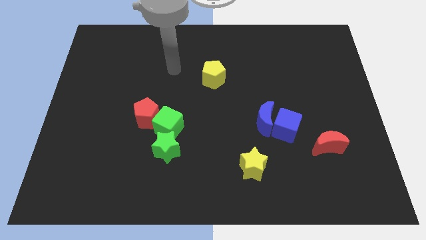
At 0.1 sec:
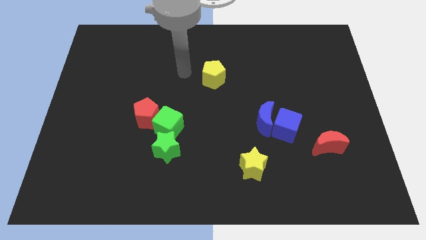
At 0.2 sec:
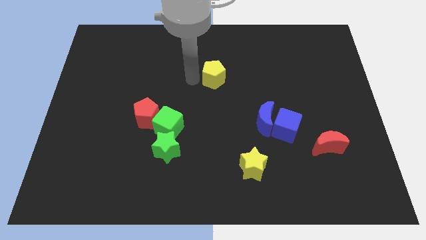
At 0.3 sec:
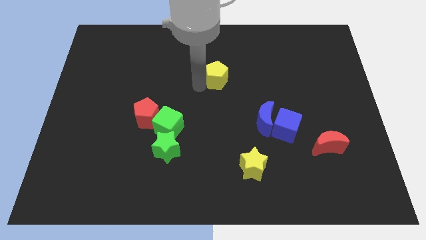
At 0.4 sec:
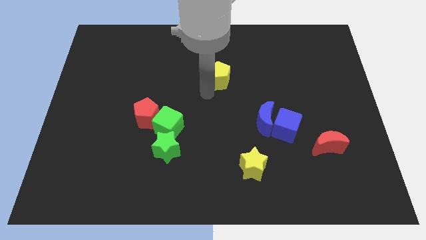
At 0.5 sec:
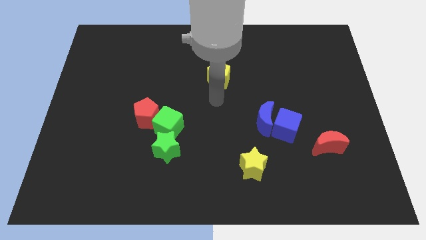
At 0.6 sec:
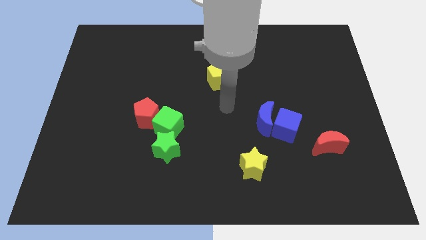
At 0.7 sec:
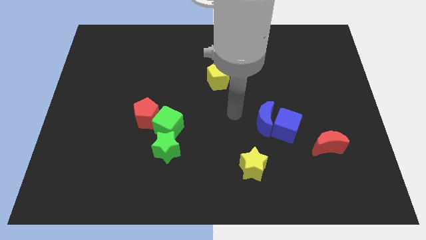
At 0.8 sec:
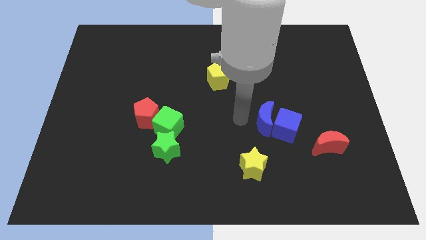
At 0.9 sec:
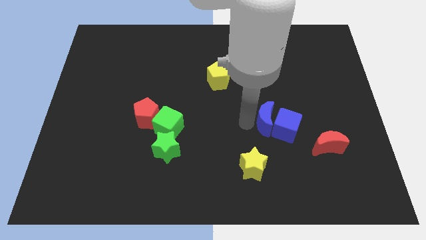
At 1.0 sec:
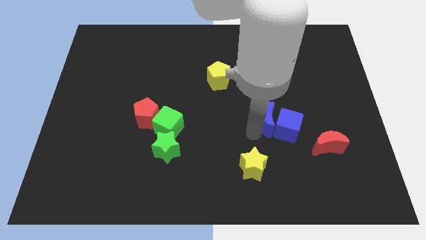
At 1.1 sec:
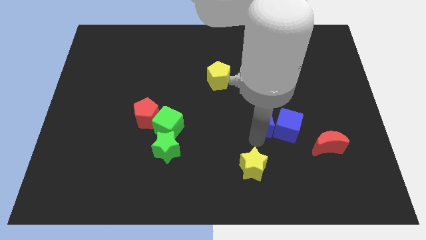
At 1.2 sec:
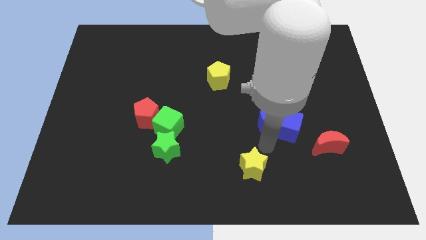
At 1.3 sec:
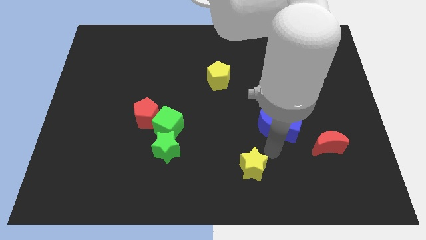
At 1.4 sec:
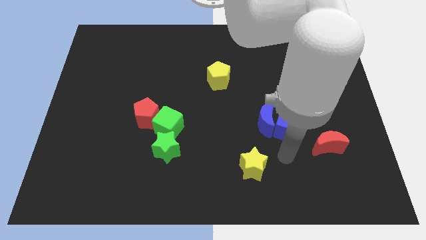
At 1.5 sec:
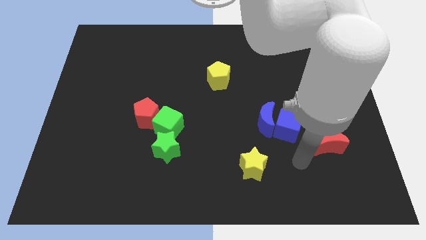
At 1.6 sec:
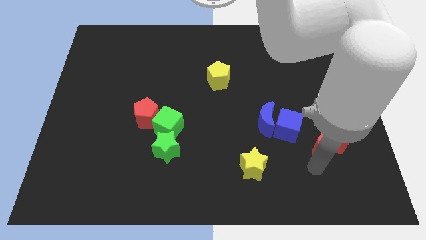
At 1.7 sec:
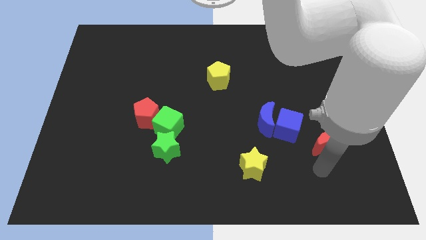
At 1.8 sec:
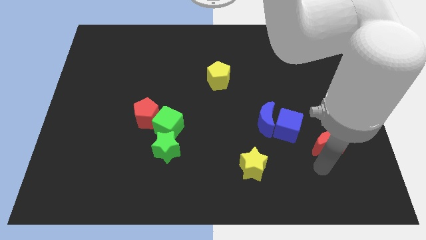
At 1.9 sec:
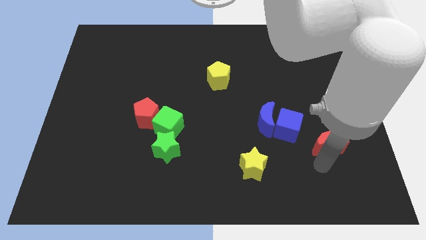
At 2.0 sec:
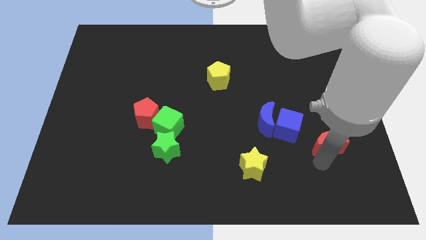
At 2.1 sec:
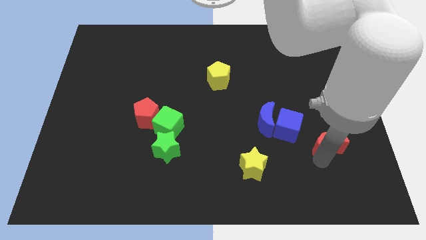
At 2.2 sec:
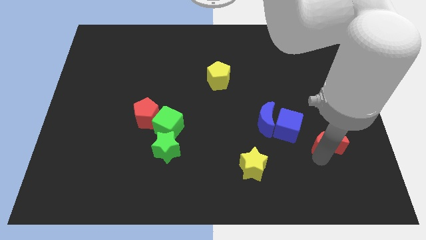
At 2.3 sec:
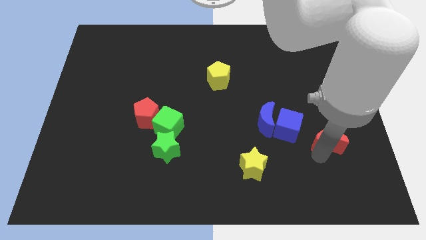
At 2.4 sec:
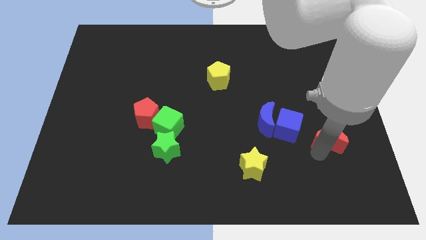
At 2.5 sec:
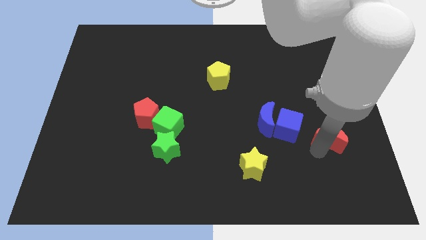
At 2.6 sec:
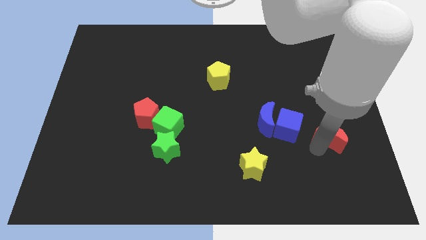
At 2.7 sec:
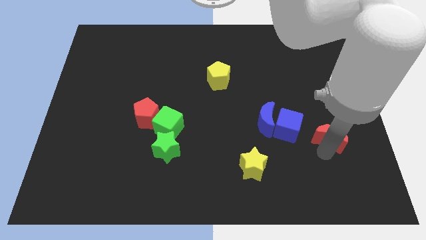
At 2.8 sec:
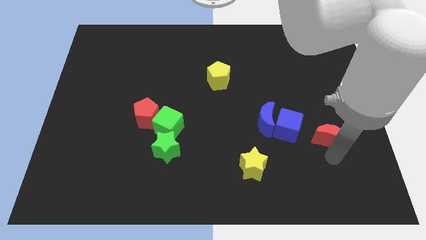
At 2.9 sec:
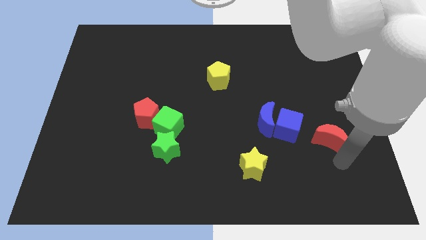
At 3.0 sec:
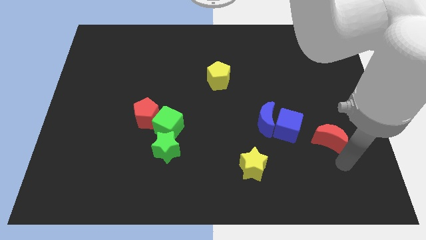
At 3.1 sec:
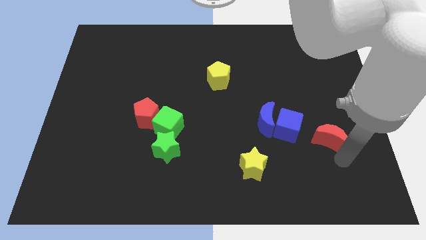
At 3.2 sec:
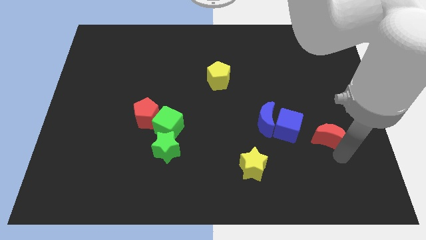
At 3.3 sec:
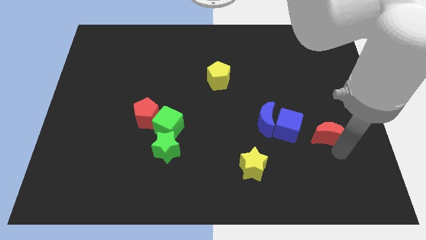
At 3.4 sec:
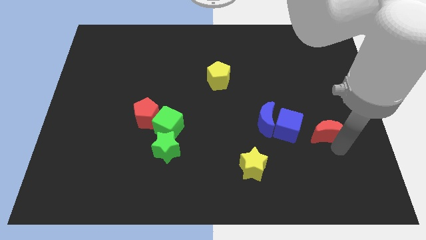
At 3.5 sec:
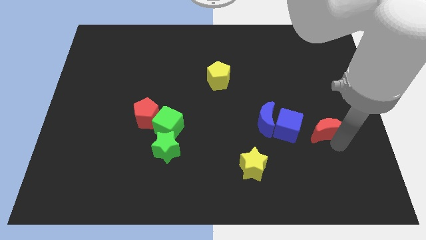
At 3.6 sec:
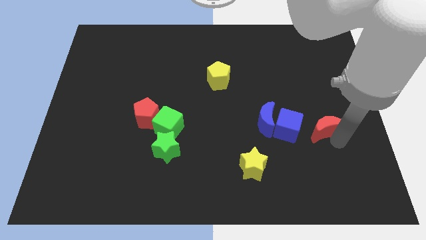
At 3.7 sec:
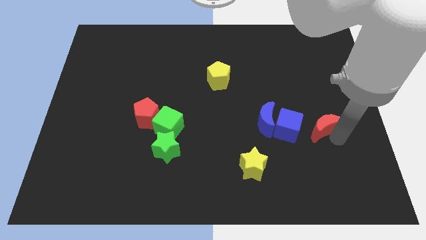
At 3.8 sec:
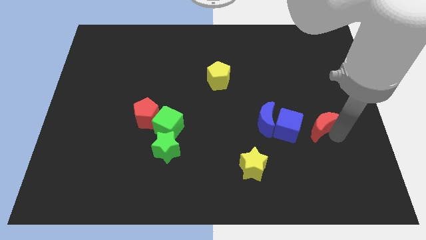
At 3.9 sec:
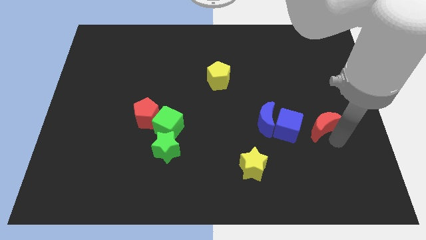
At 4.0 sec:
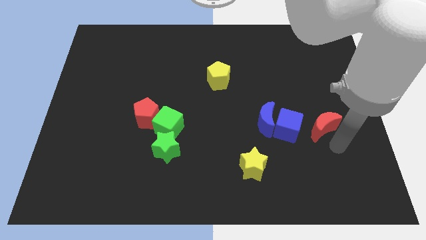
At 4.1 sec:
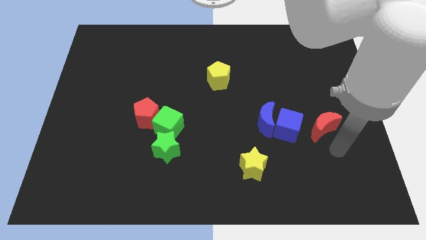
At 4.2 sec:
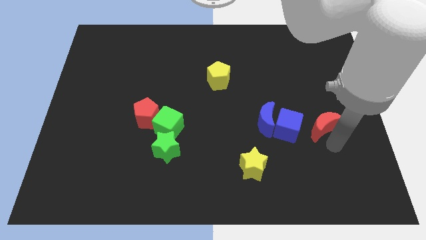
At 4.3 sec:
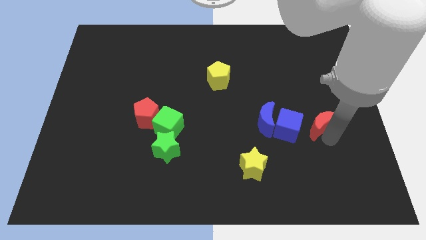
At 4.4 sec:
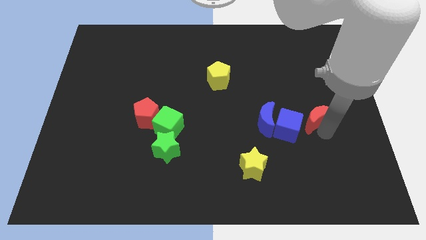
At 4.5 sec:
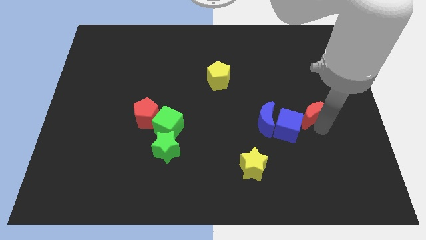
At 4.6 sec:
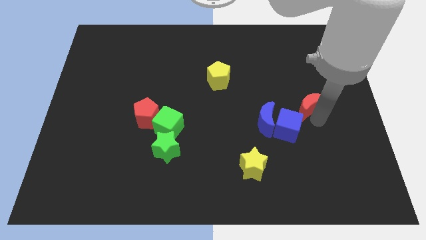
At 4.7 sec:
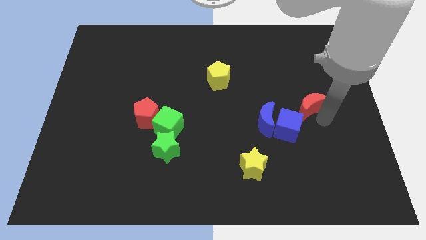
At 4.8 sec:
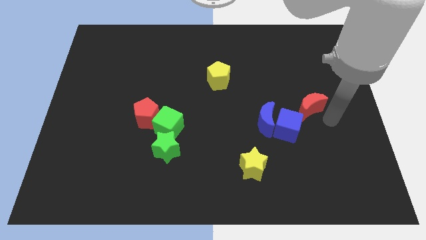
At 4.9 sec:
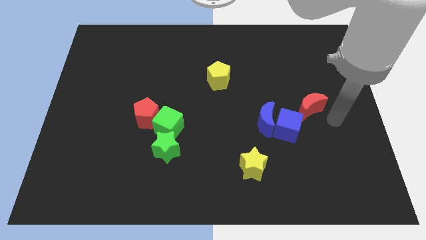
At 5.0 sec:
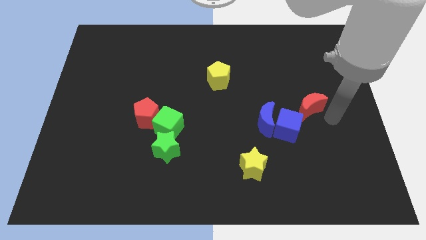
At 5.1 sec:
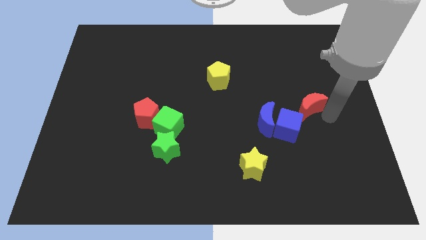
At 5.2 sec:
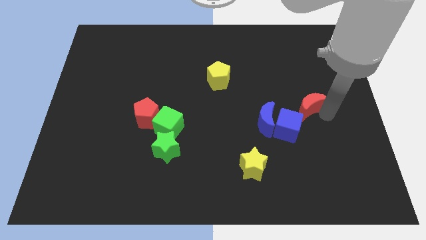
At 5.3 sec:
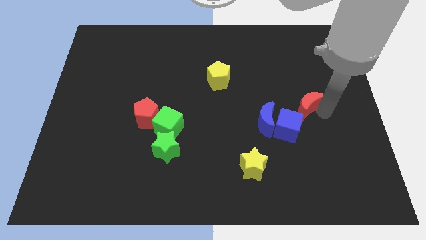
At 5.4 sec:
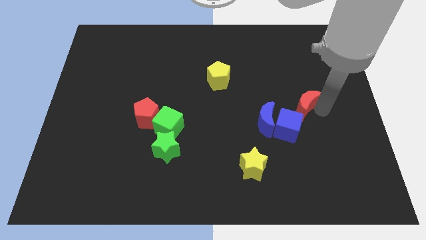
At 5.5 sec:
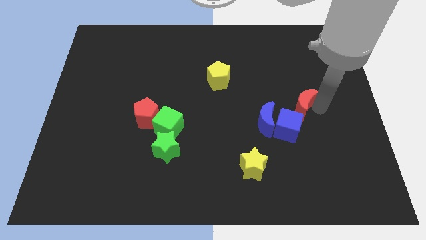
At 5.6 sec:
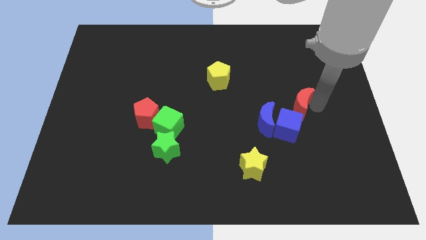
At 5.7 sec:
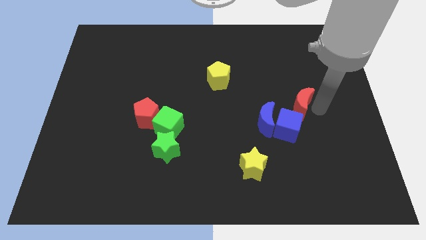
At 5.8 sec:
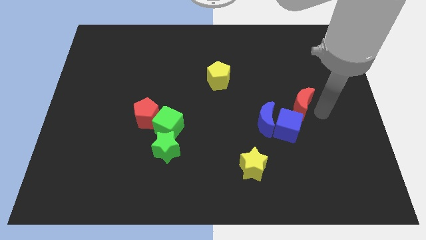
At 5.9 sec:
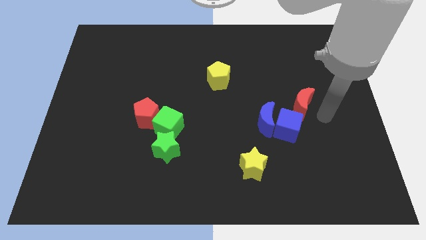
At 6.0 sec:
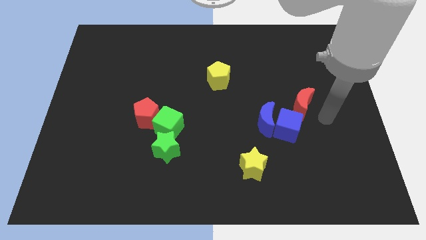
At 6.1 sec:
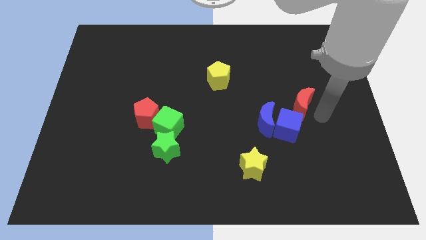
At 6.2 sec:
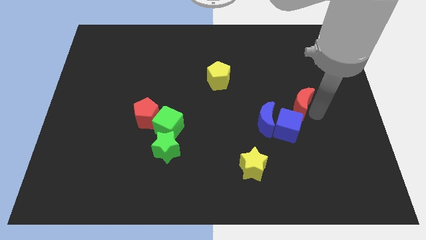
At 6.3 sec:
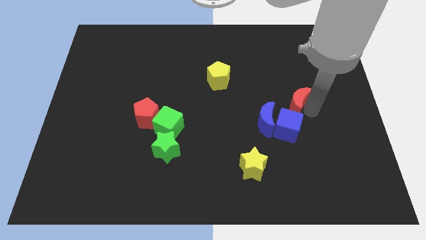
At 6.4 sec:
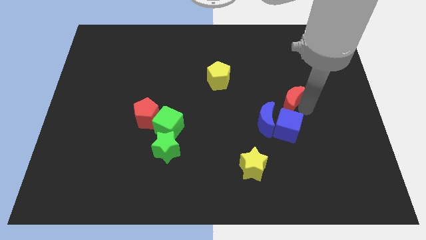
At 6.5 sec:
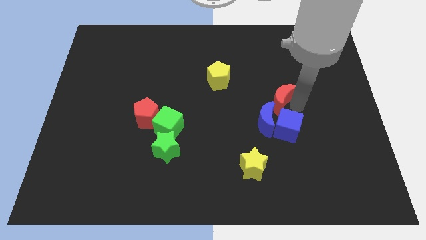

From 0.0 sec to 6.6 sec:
move the red moon to the top side of the blue moon
